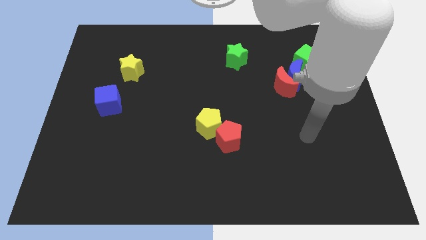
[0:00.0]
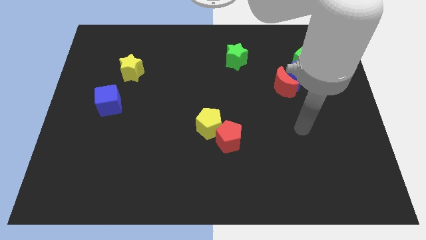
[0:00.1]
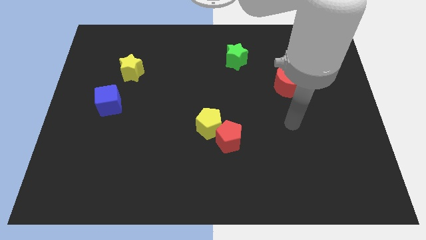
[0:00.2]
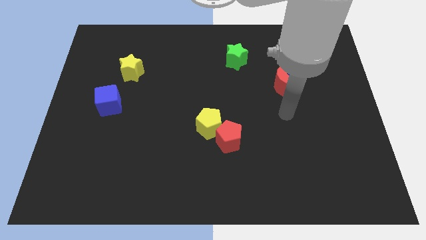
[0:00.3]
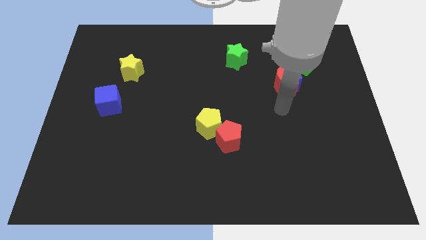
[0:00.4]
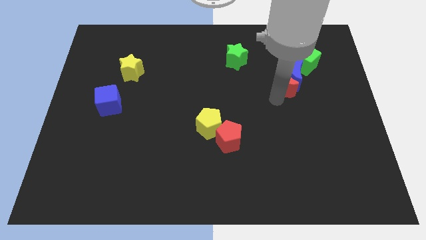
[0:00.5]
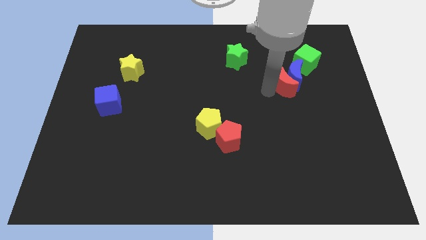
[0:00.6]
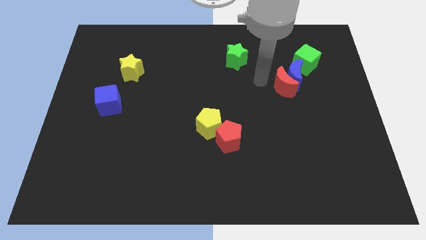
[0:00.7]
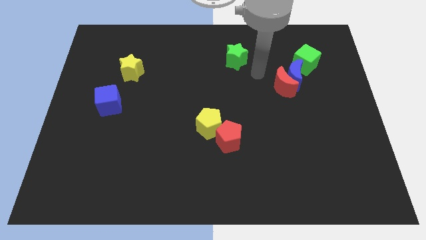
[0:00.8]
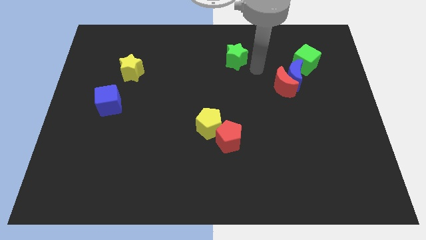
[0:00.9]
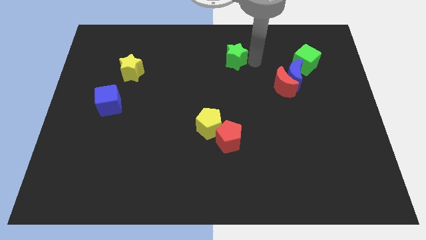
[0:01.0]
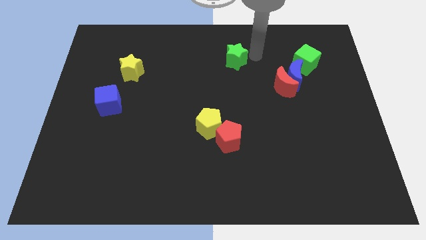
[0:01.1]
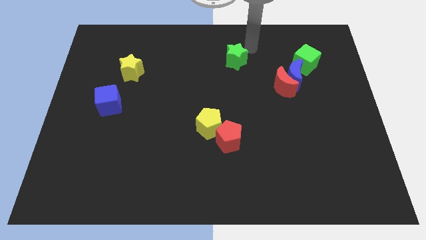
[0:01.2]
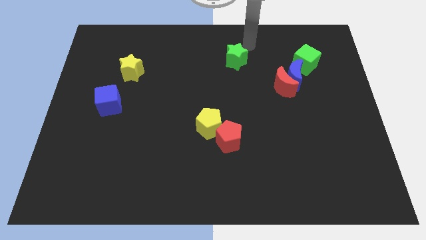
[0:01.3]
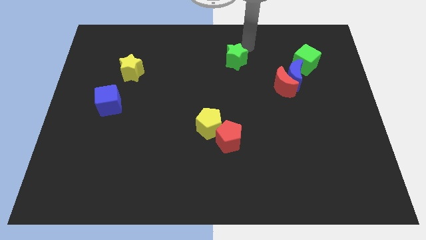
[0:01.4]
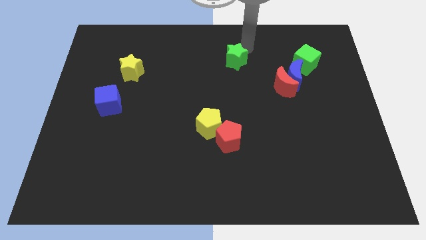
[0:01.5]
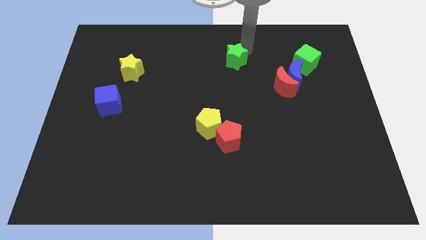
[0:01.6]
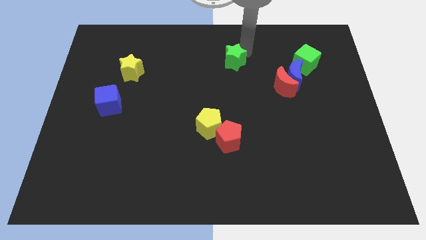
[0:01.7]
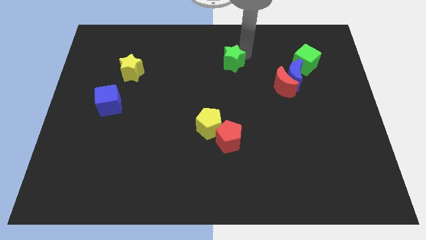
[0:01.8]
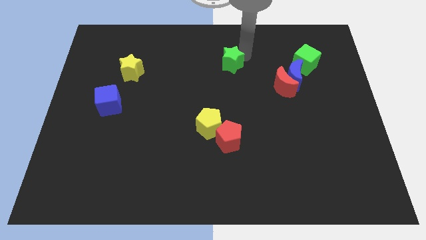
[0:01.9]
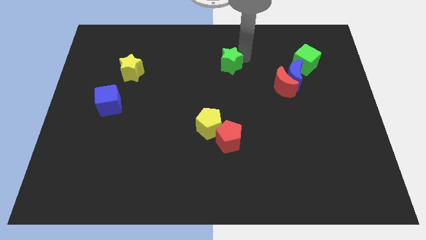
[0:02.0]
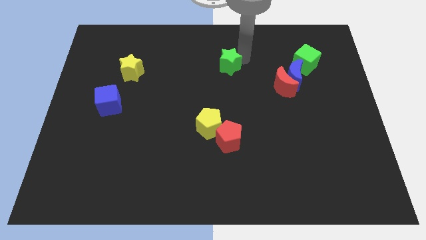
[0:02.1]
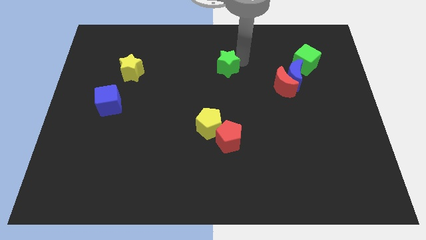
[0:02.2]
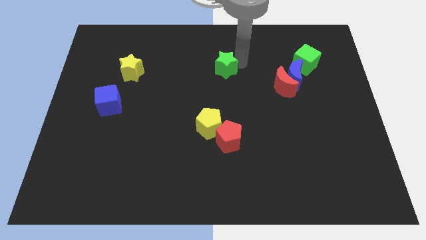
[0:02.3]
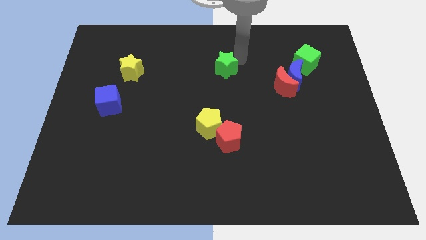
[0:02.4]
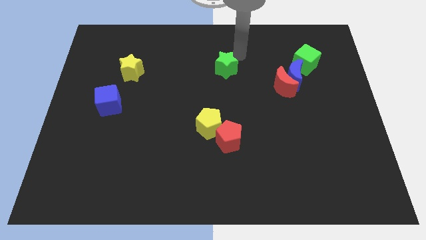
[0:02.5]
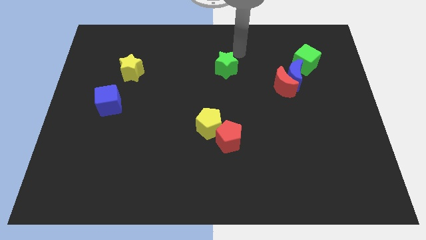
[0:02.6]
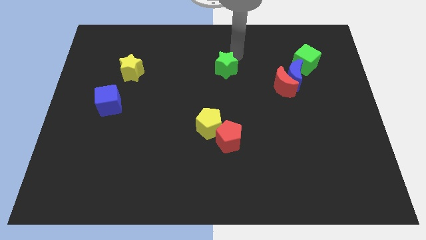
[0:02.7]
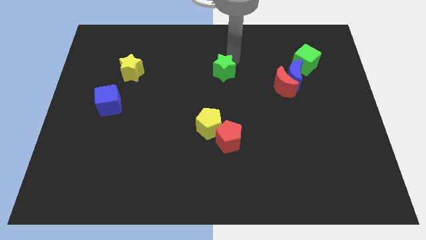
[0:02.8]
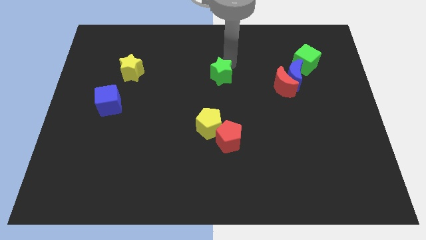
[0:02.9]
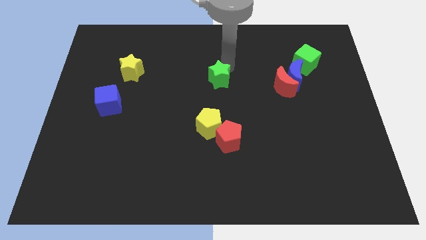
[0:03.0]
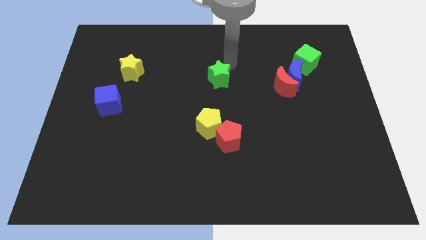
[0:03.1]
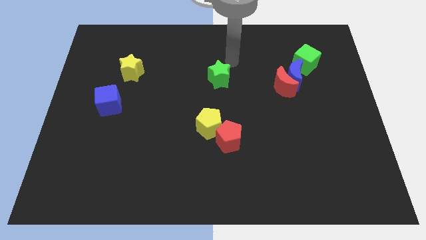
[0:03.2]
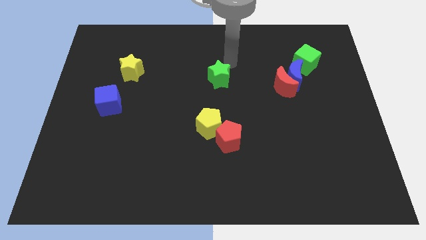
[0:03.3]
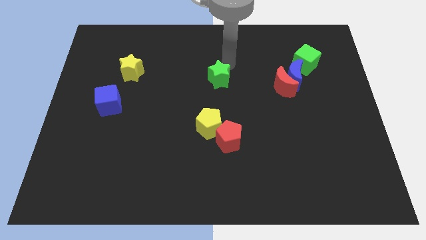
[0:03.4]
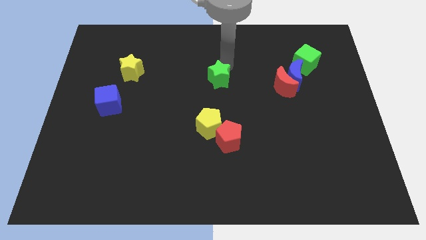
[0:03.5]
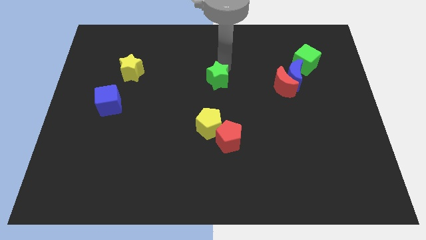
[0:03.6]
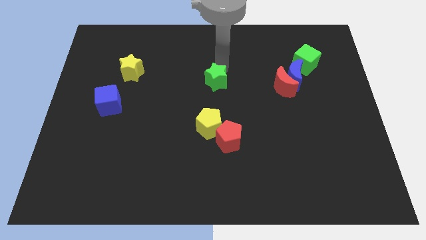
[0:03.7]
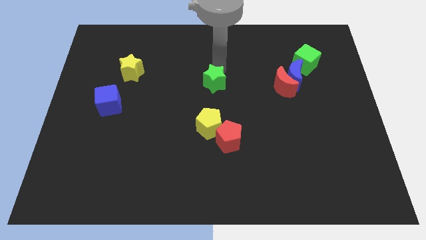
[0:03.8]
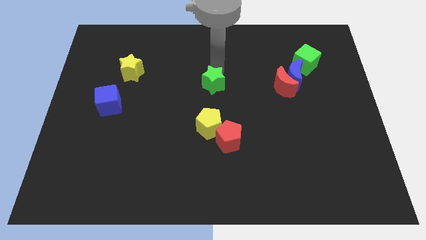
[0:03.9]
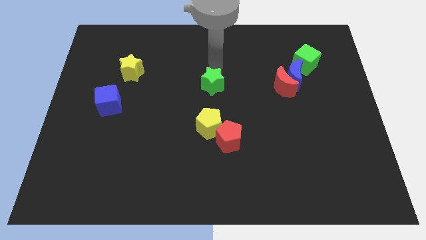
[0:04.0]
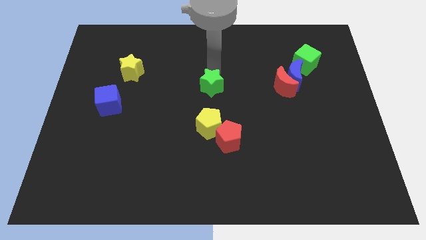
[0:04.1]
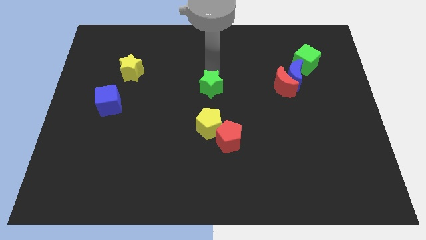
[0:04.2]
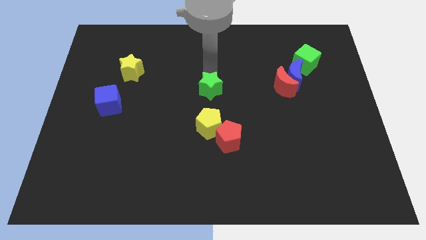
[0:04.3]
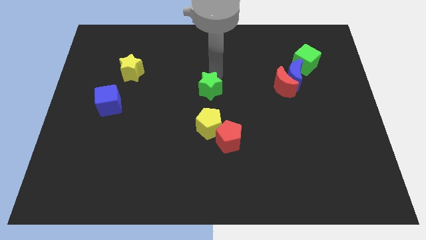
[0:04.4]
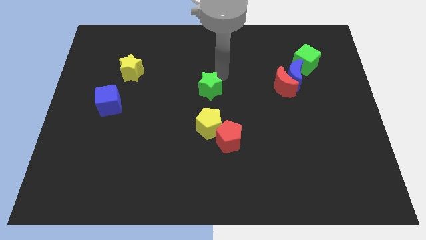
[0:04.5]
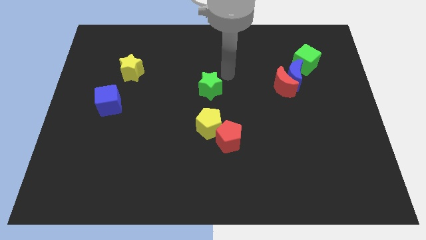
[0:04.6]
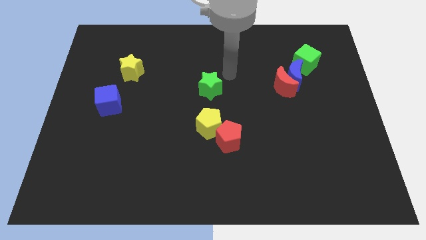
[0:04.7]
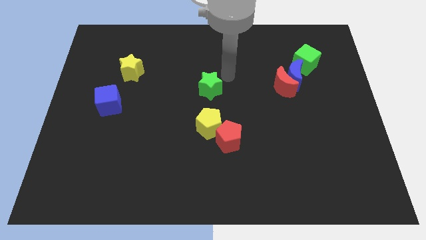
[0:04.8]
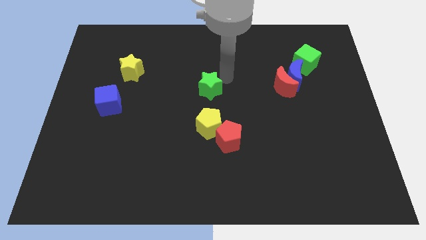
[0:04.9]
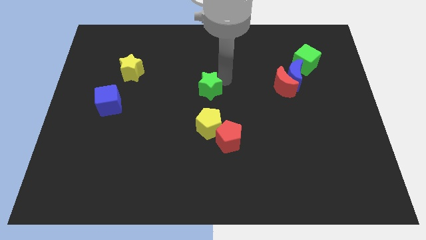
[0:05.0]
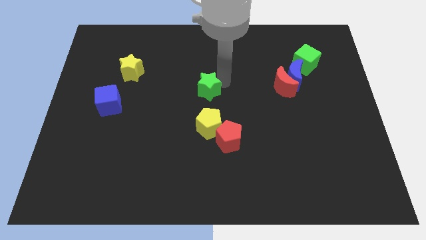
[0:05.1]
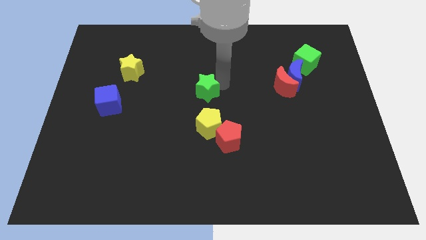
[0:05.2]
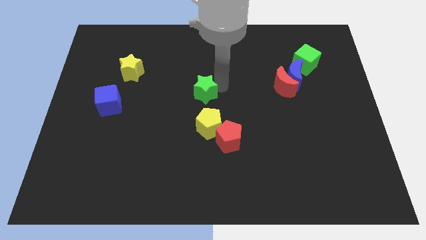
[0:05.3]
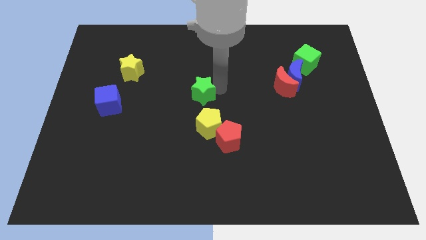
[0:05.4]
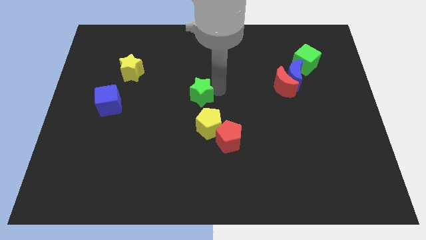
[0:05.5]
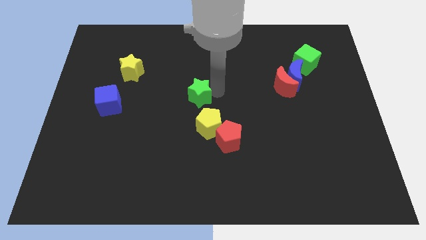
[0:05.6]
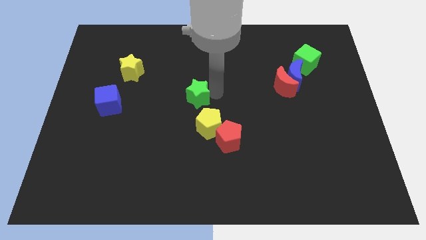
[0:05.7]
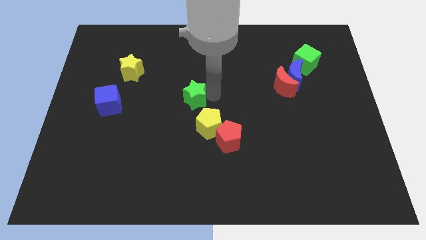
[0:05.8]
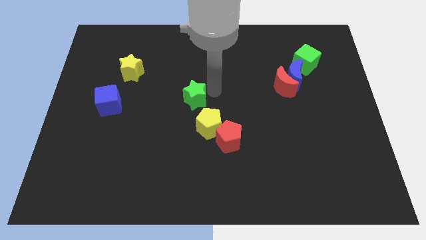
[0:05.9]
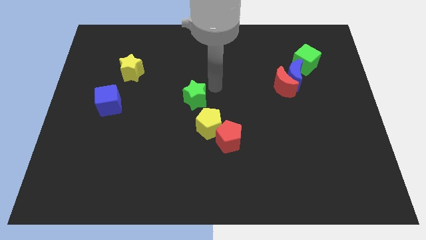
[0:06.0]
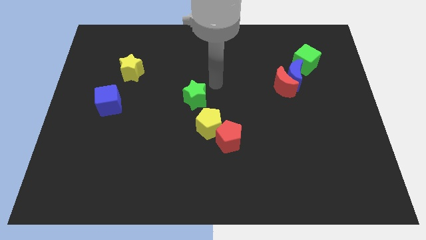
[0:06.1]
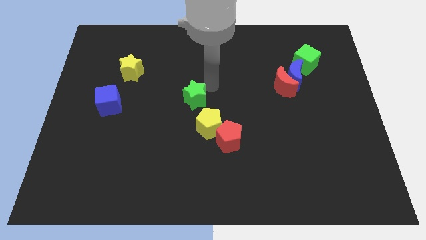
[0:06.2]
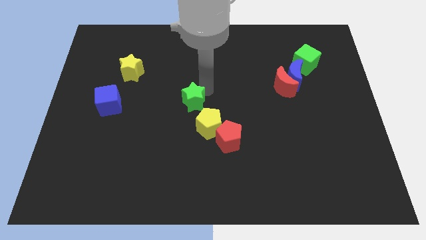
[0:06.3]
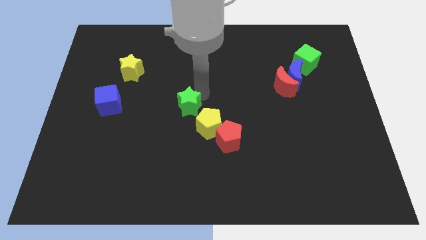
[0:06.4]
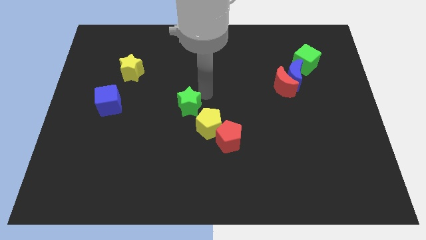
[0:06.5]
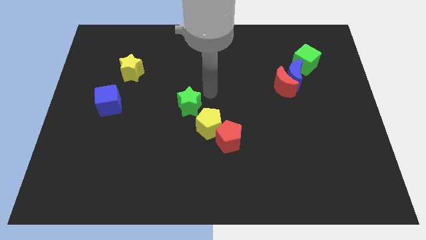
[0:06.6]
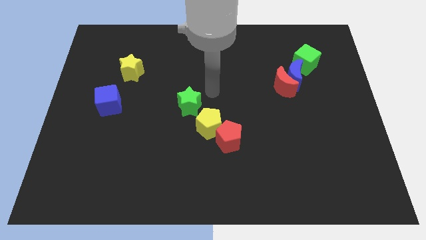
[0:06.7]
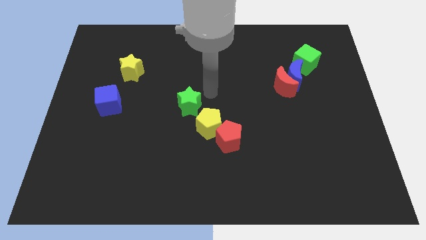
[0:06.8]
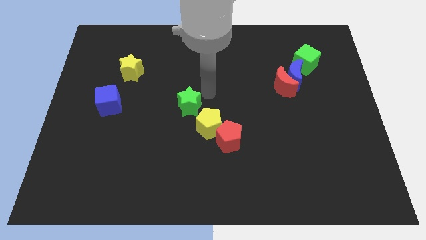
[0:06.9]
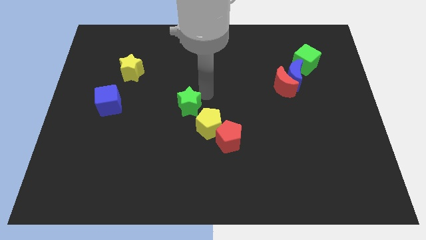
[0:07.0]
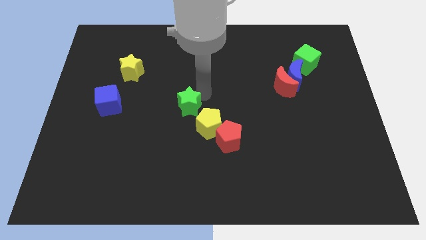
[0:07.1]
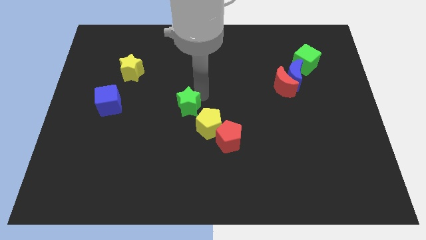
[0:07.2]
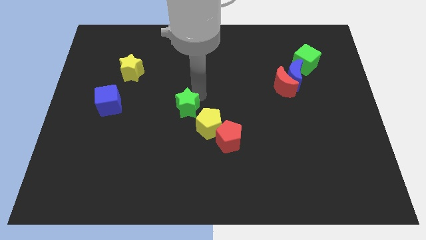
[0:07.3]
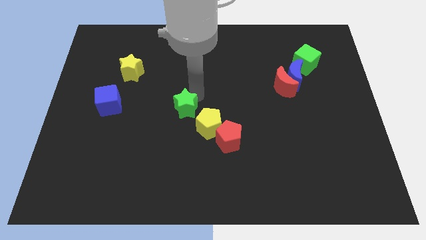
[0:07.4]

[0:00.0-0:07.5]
move the green star downwards and to the left diagonally

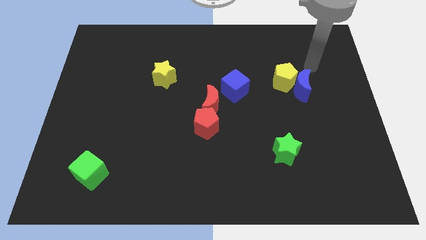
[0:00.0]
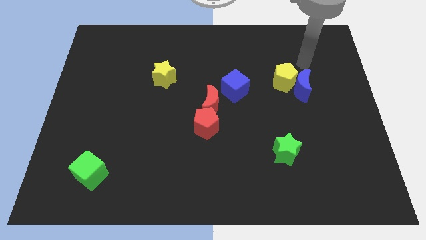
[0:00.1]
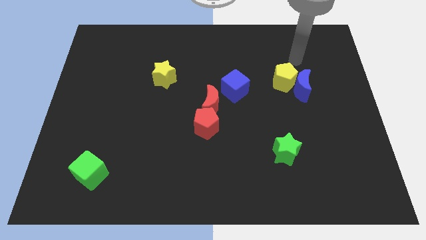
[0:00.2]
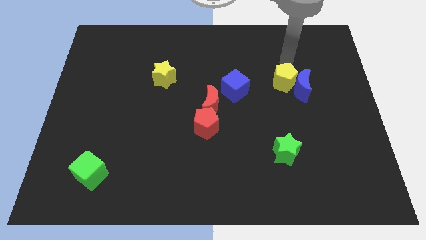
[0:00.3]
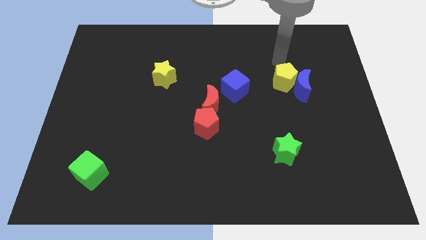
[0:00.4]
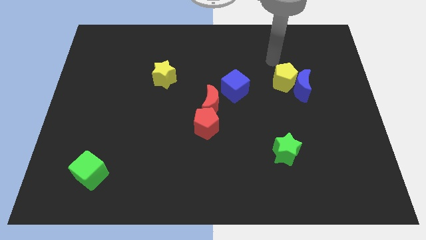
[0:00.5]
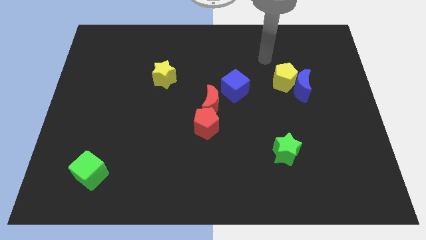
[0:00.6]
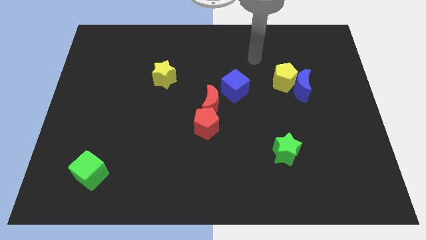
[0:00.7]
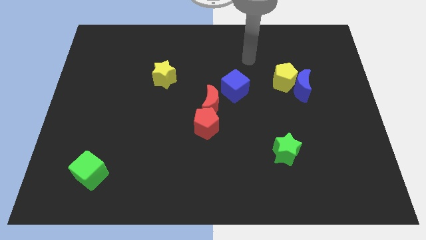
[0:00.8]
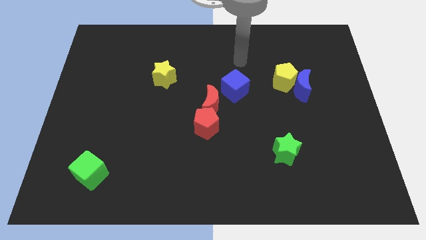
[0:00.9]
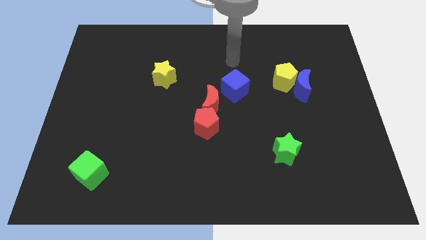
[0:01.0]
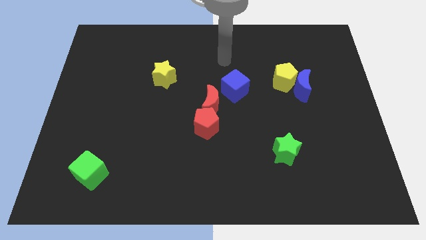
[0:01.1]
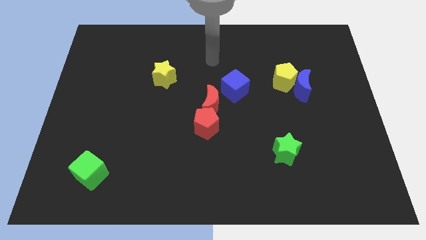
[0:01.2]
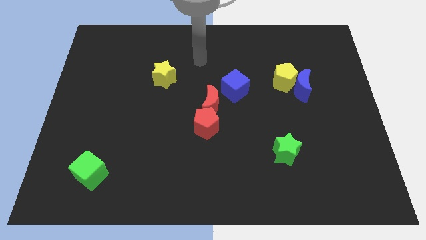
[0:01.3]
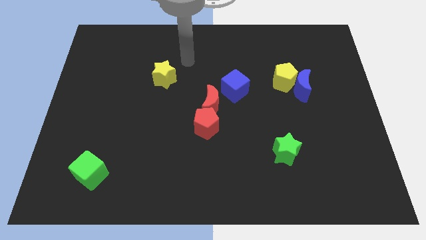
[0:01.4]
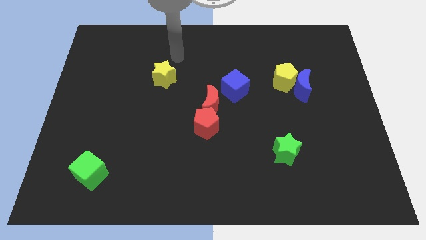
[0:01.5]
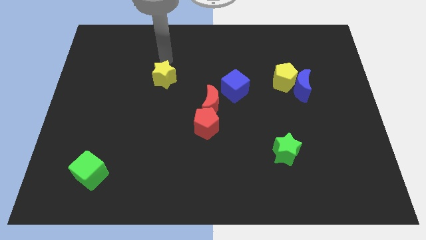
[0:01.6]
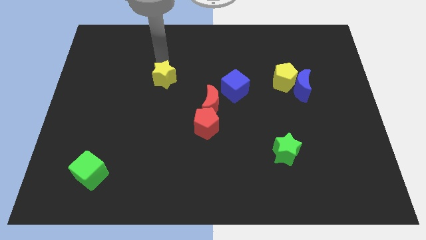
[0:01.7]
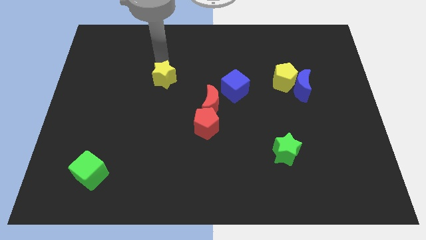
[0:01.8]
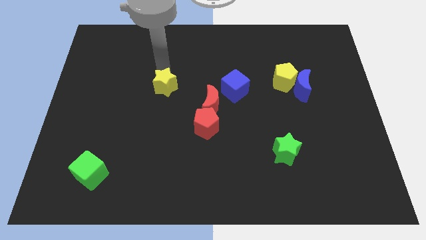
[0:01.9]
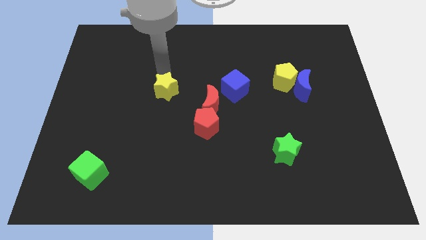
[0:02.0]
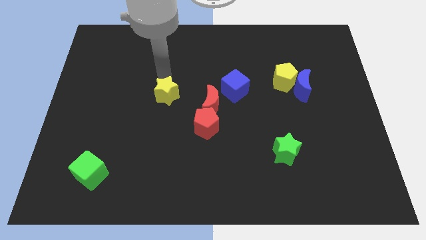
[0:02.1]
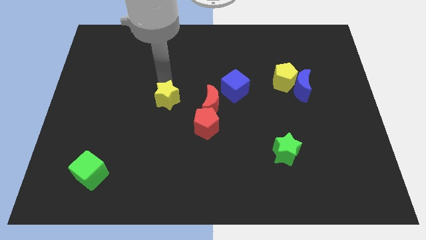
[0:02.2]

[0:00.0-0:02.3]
slightly move the yellow star down
